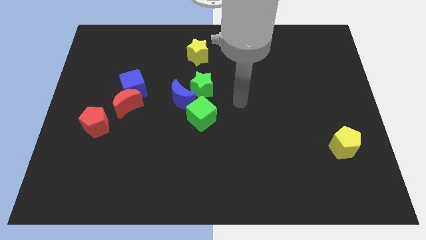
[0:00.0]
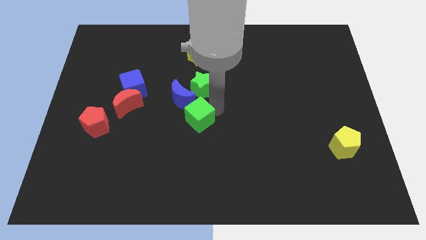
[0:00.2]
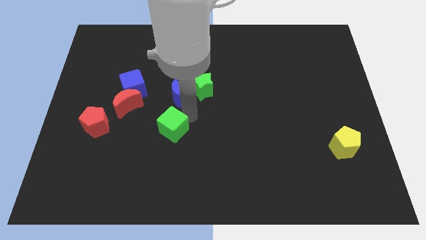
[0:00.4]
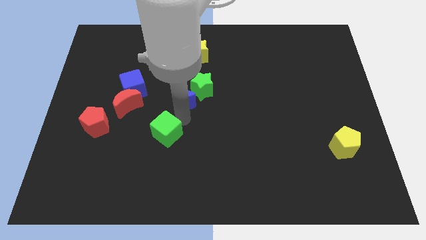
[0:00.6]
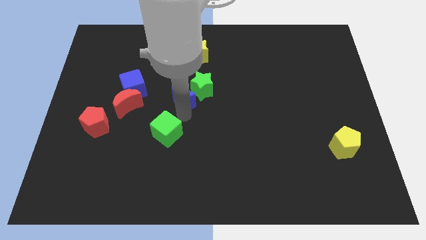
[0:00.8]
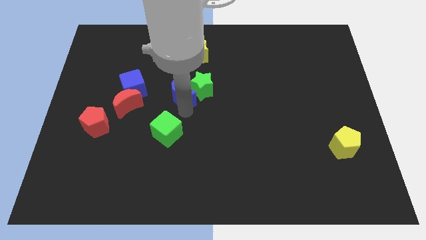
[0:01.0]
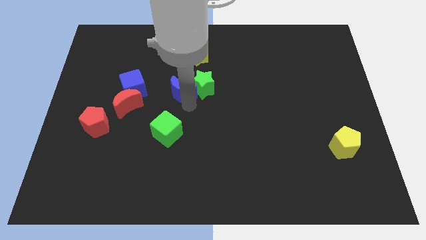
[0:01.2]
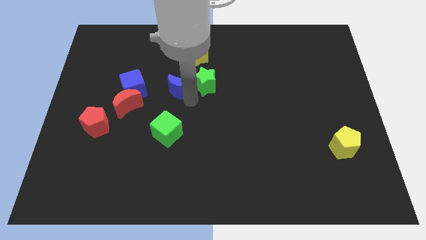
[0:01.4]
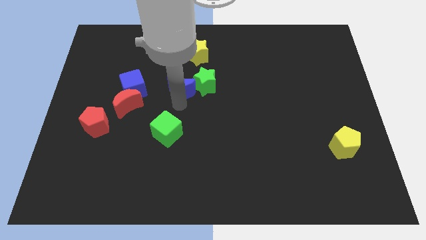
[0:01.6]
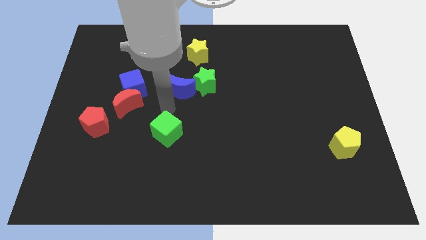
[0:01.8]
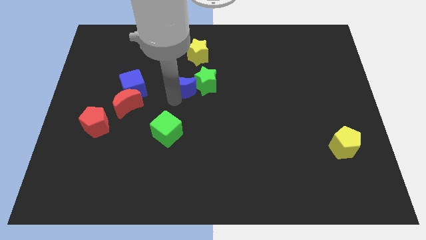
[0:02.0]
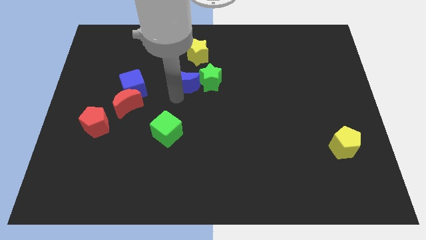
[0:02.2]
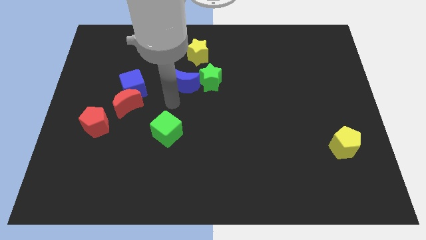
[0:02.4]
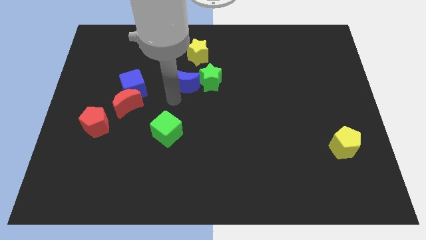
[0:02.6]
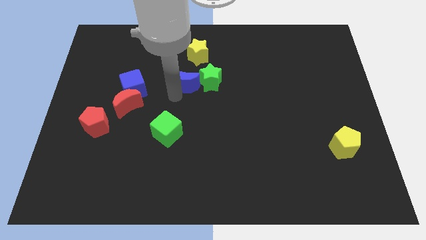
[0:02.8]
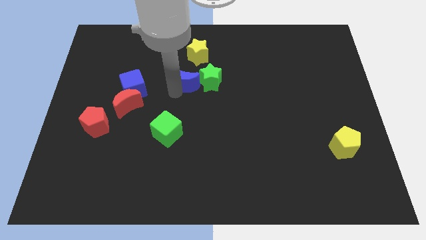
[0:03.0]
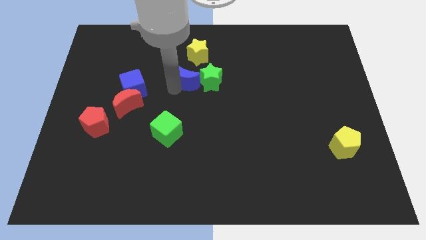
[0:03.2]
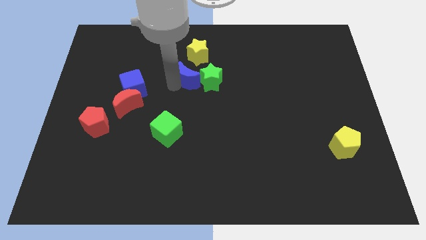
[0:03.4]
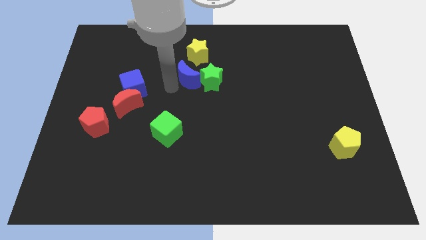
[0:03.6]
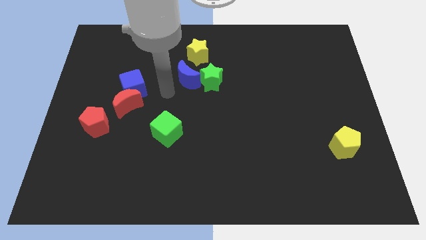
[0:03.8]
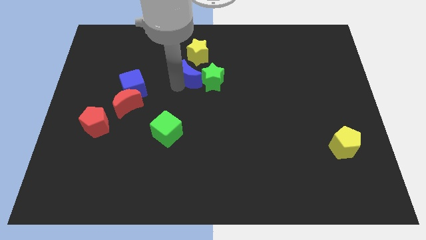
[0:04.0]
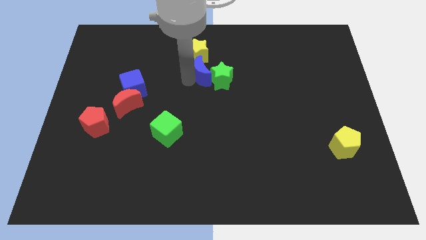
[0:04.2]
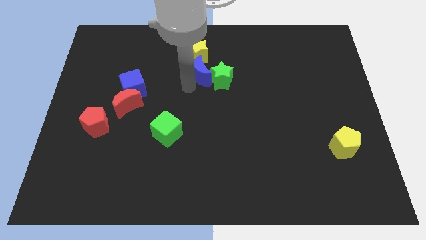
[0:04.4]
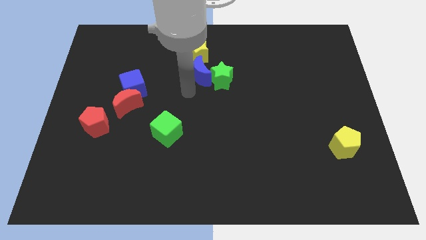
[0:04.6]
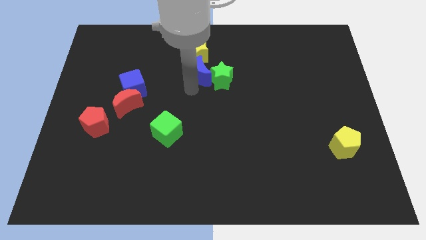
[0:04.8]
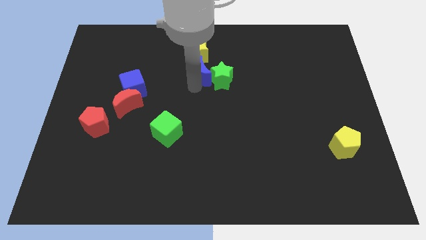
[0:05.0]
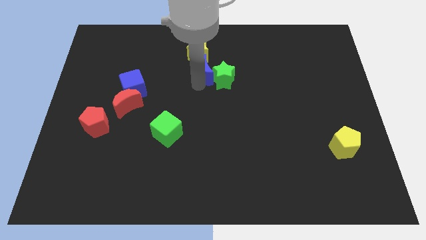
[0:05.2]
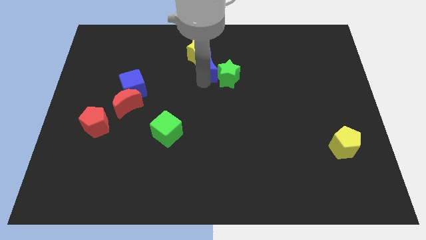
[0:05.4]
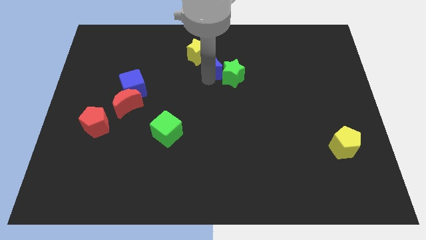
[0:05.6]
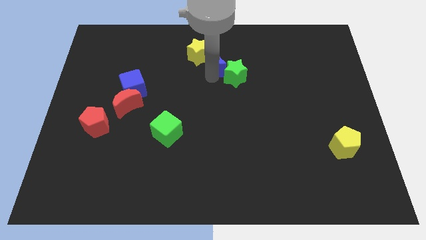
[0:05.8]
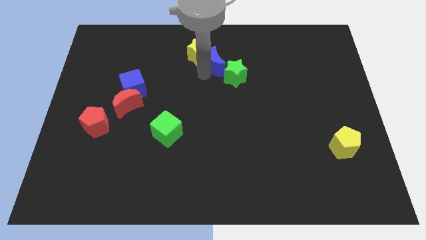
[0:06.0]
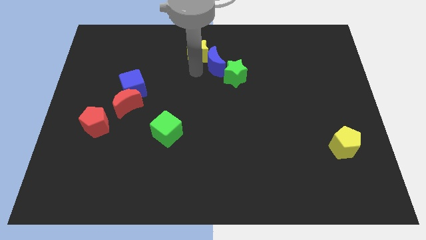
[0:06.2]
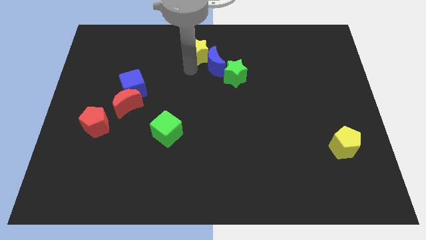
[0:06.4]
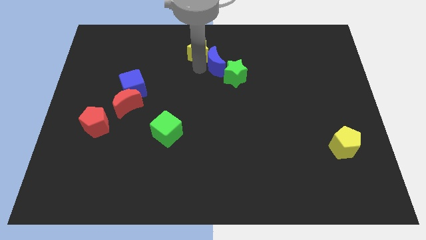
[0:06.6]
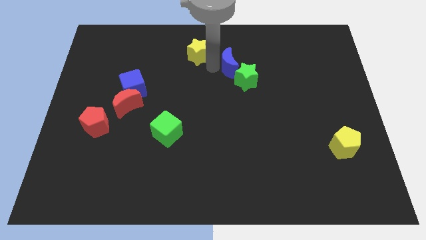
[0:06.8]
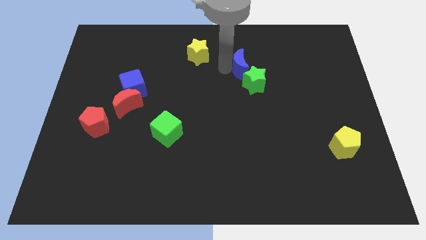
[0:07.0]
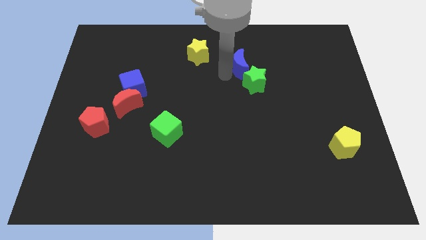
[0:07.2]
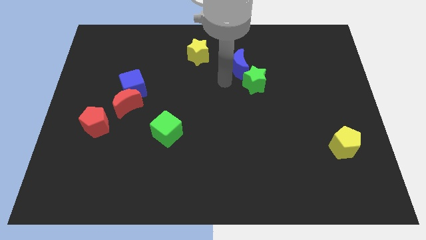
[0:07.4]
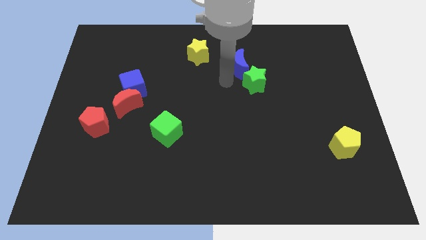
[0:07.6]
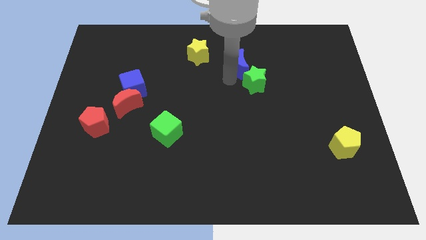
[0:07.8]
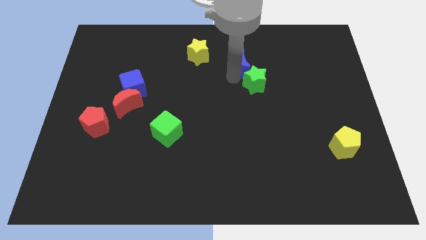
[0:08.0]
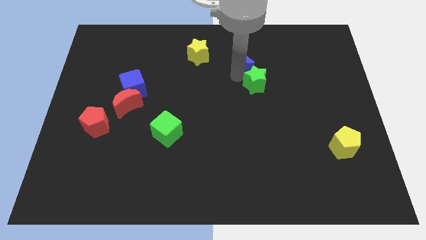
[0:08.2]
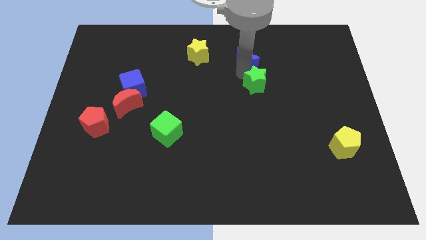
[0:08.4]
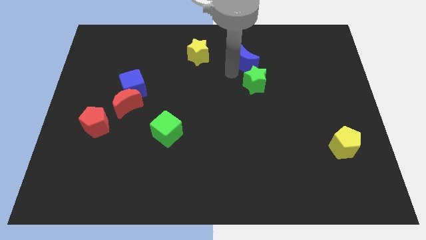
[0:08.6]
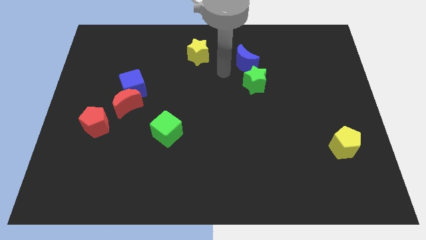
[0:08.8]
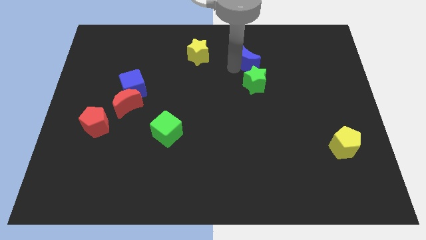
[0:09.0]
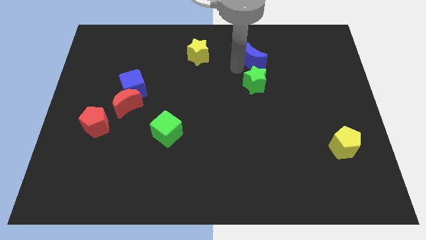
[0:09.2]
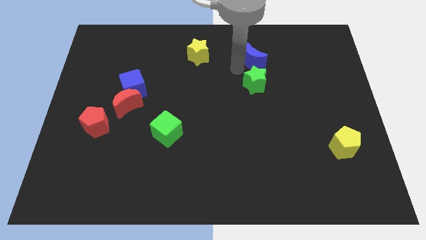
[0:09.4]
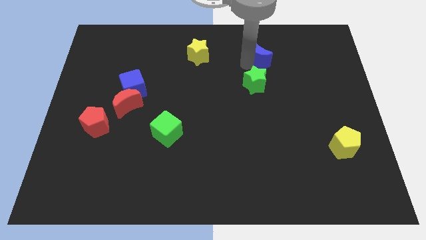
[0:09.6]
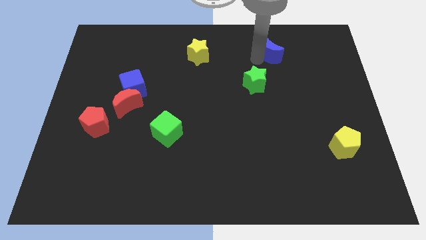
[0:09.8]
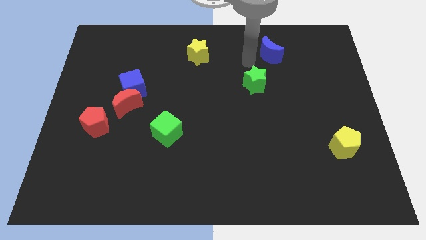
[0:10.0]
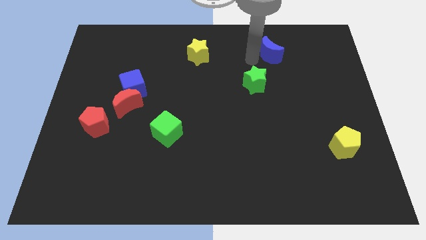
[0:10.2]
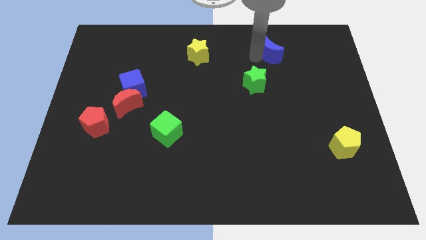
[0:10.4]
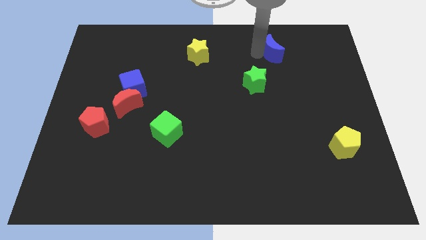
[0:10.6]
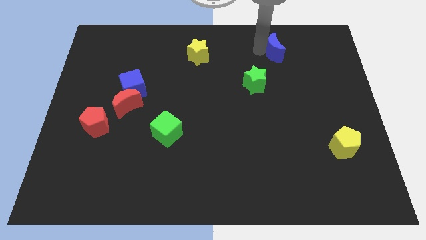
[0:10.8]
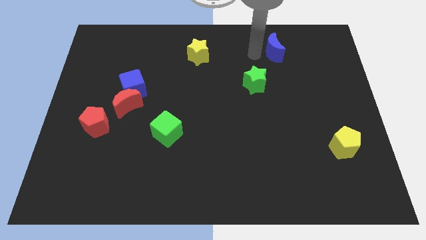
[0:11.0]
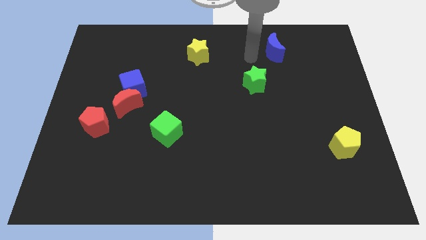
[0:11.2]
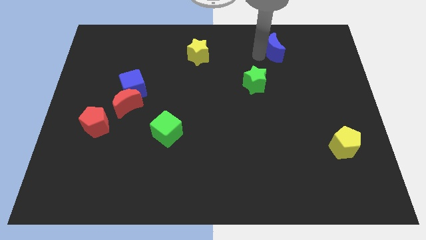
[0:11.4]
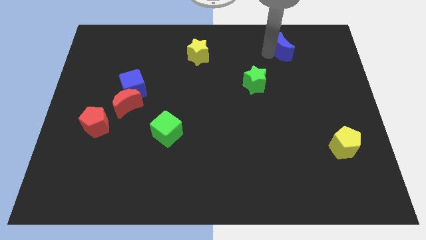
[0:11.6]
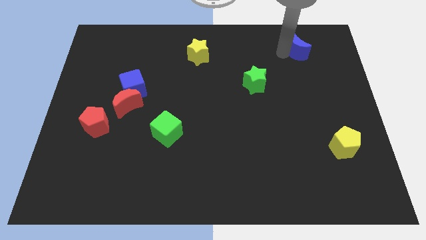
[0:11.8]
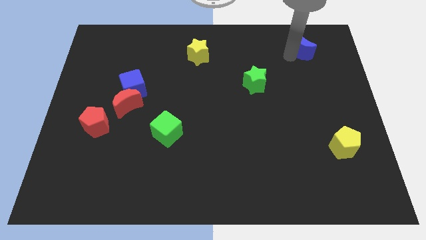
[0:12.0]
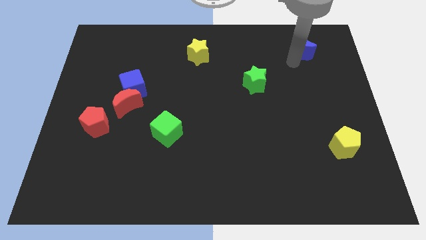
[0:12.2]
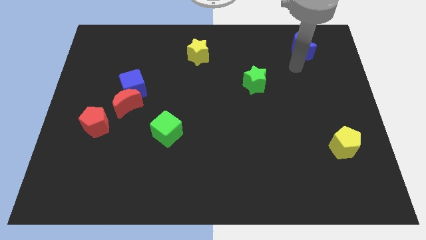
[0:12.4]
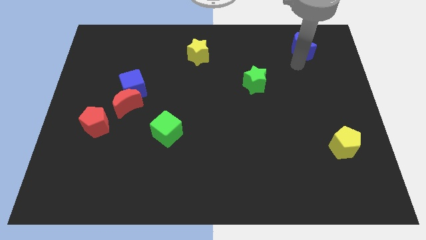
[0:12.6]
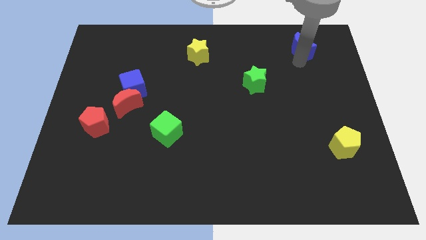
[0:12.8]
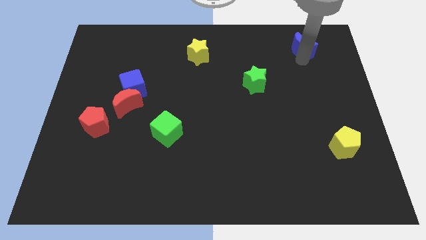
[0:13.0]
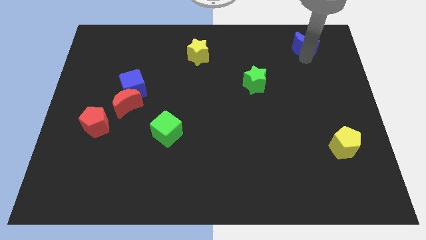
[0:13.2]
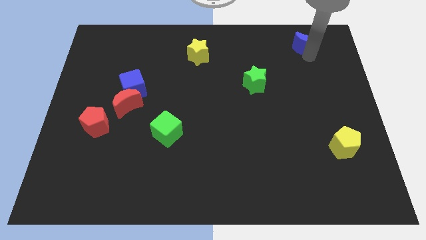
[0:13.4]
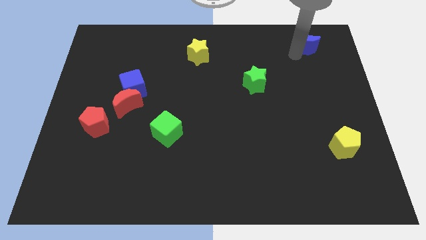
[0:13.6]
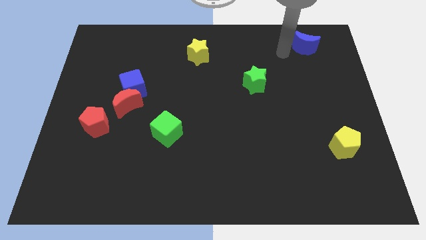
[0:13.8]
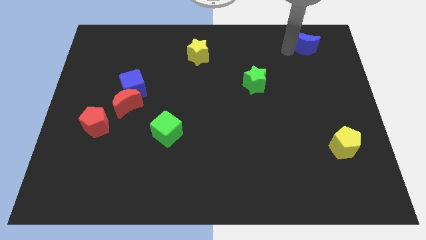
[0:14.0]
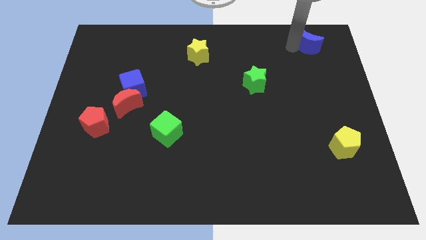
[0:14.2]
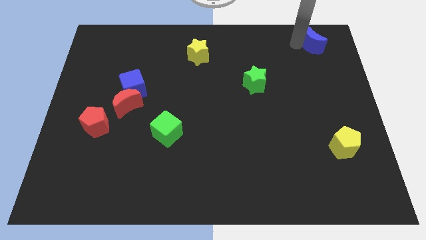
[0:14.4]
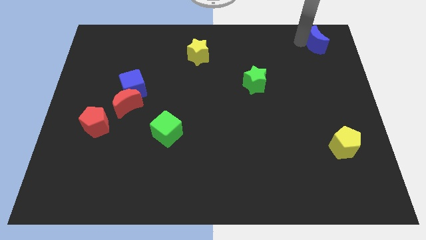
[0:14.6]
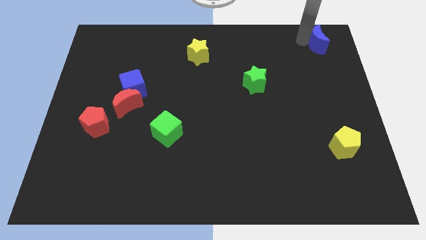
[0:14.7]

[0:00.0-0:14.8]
slide the blue moon to the upper right corner
